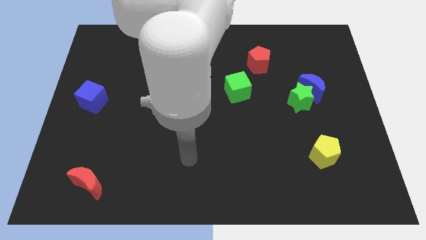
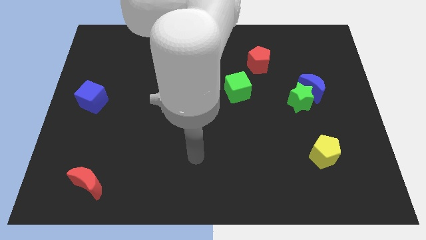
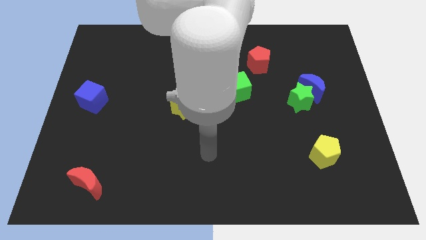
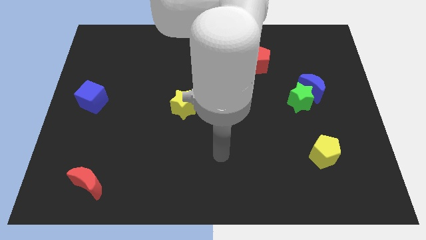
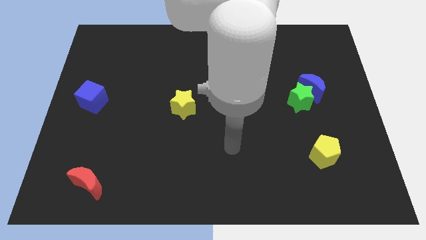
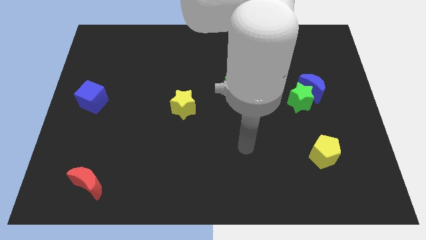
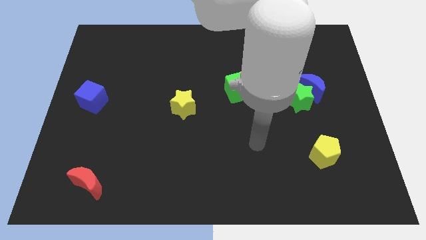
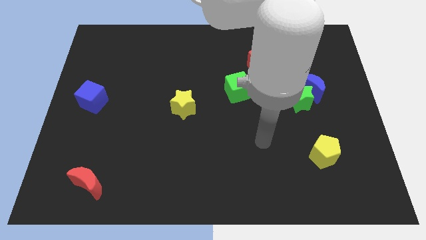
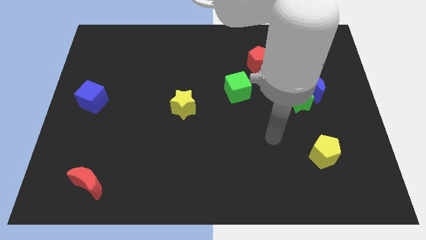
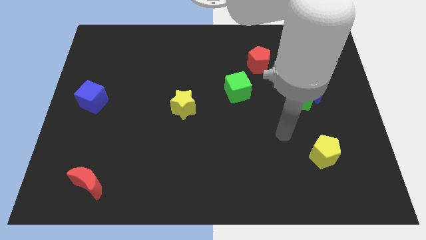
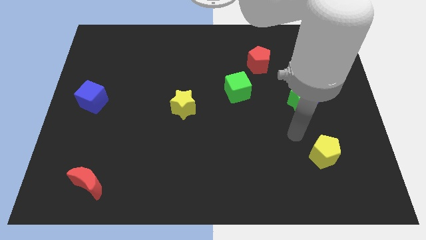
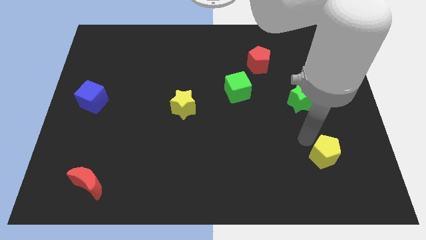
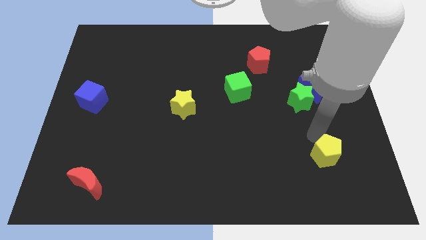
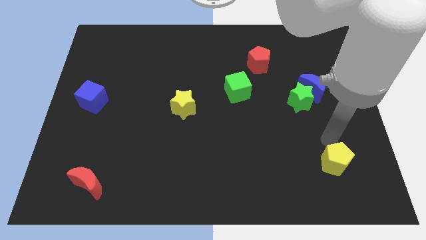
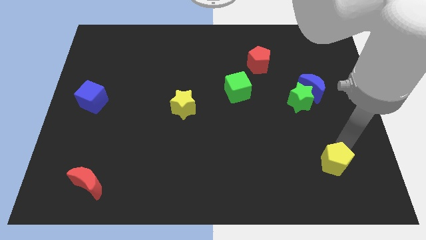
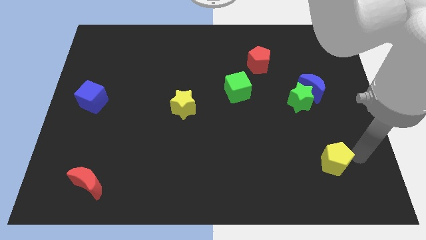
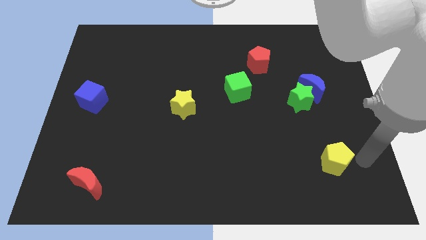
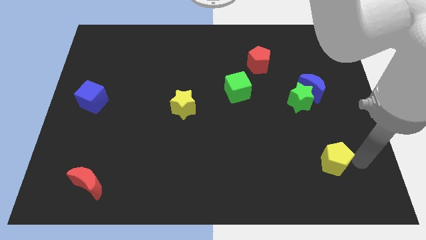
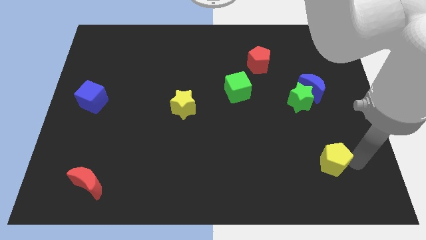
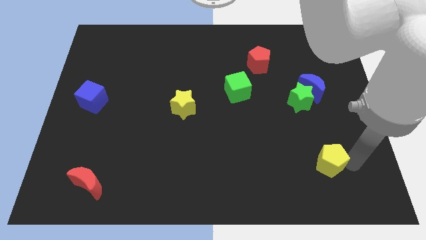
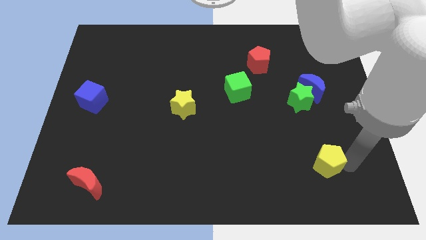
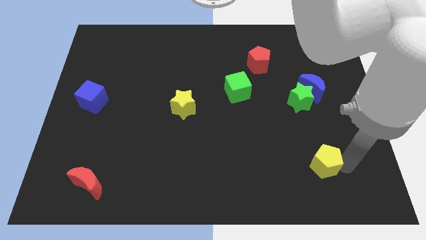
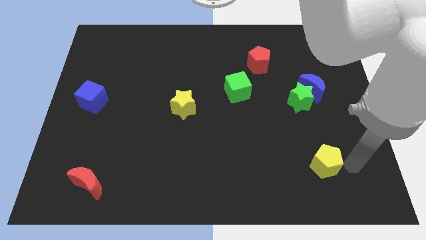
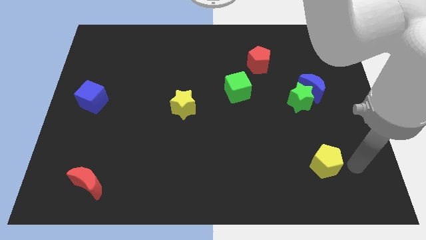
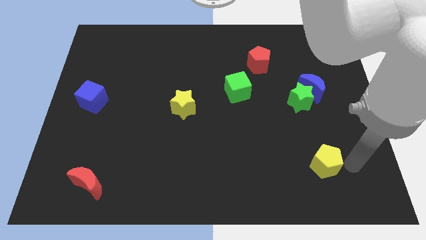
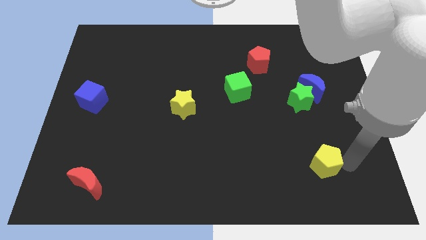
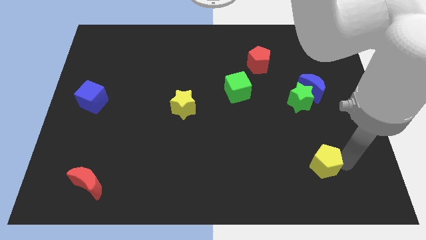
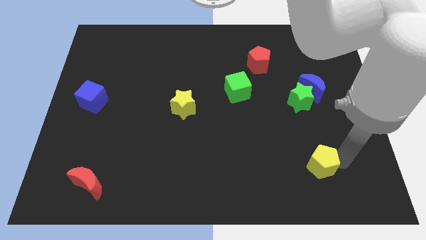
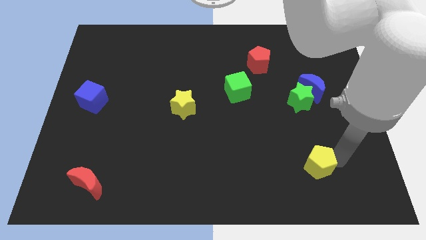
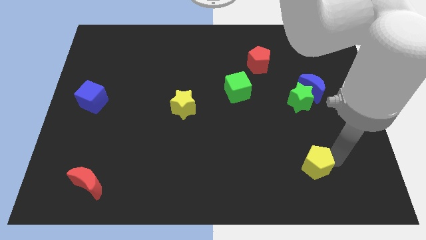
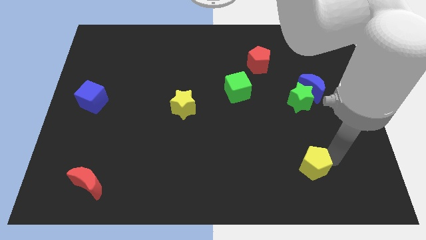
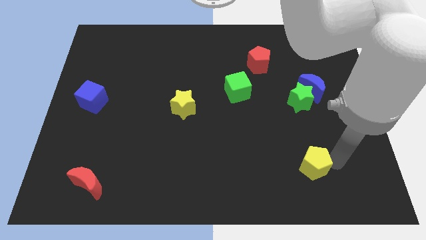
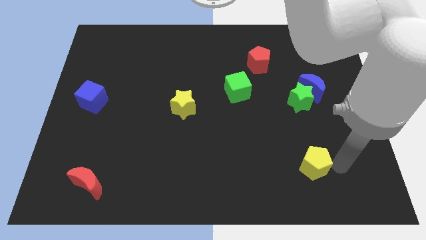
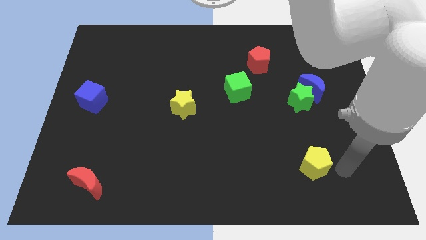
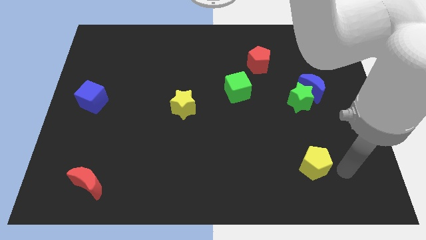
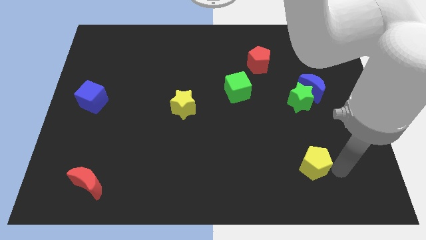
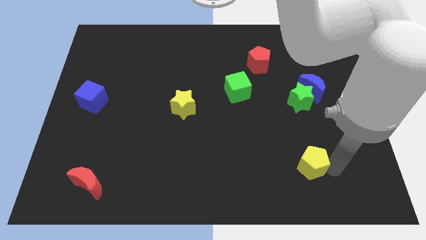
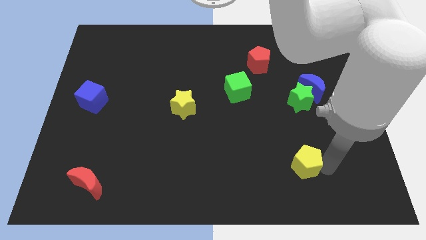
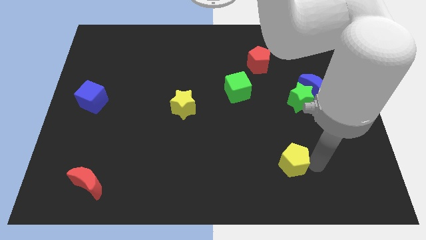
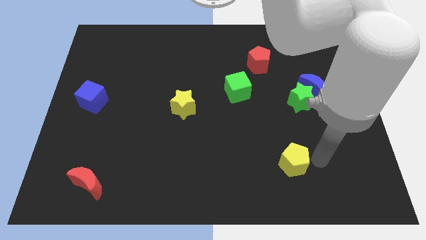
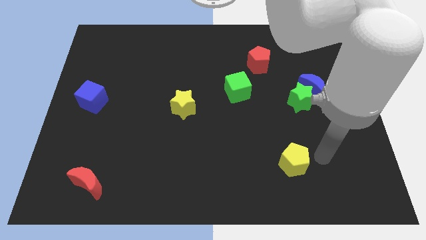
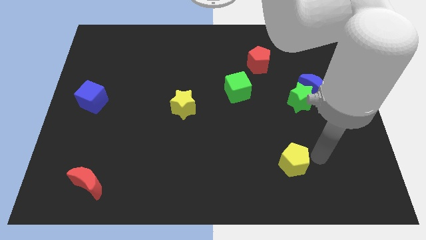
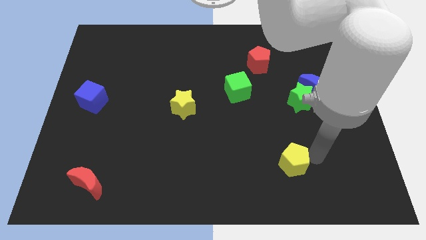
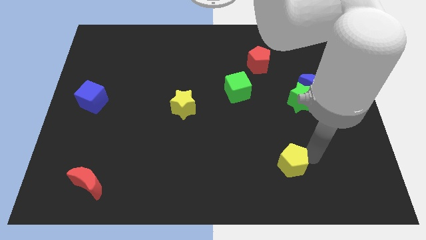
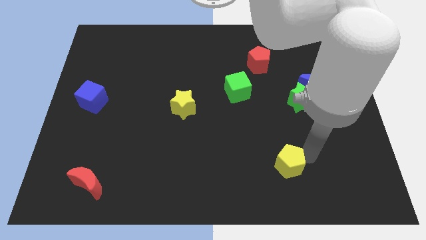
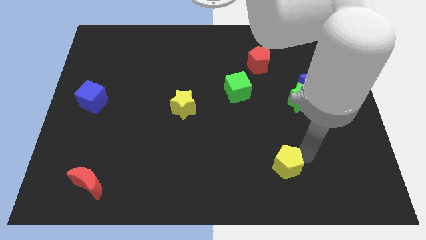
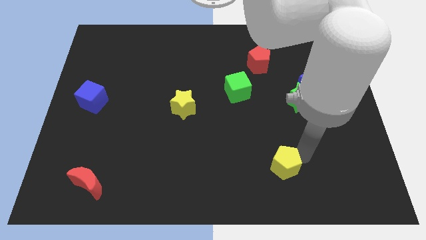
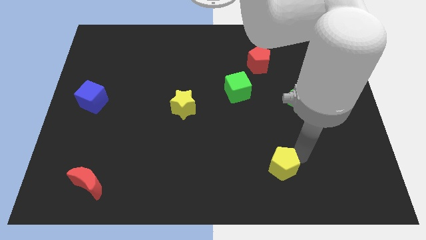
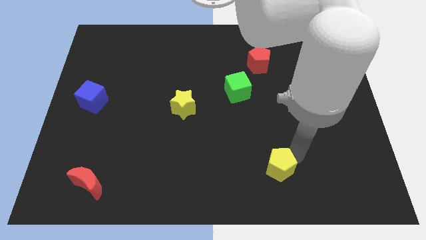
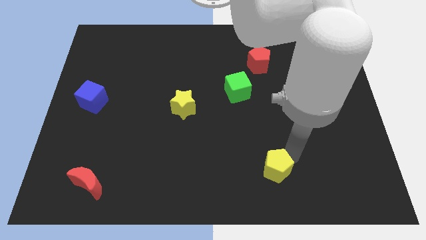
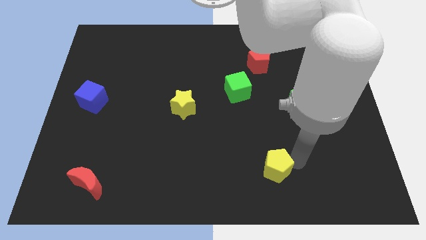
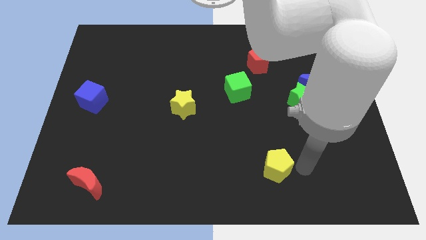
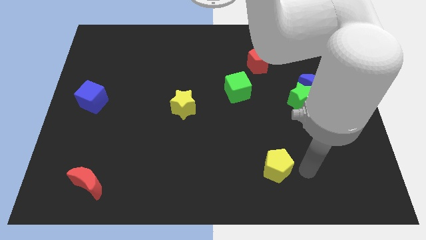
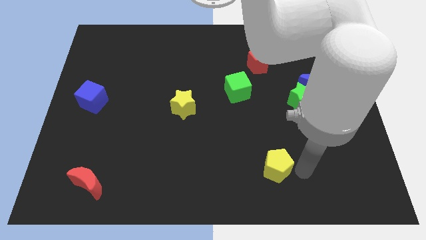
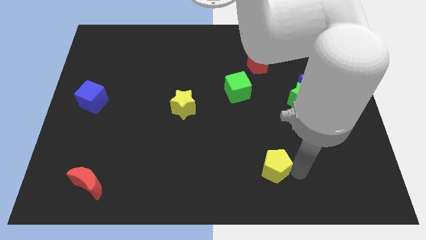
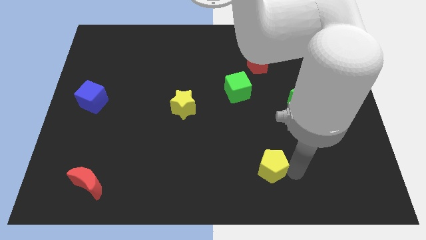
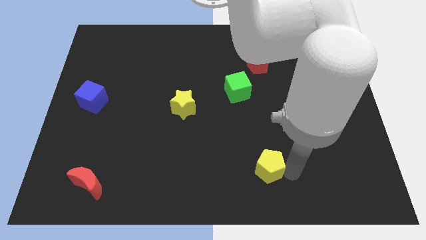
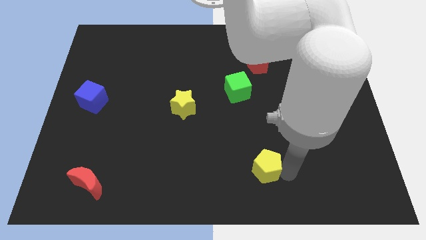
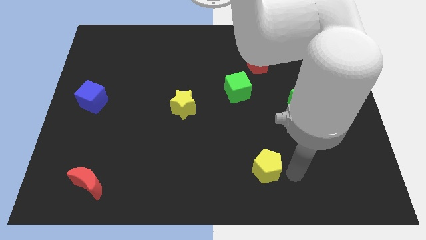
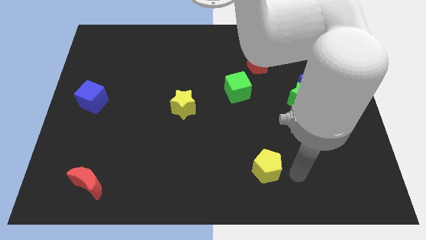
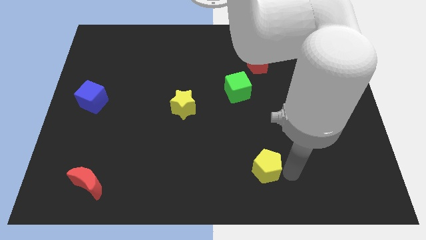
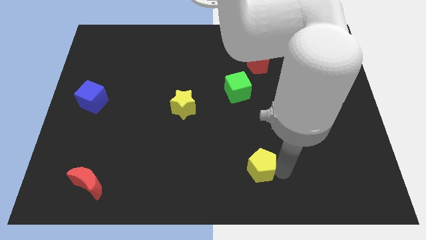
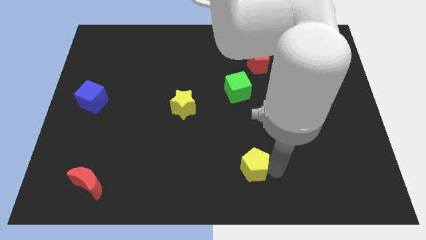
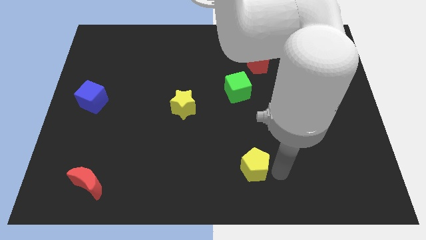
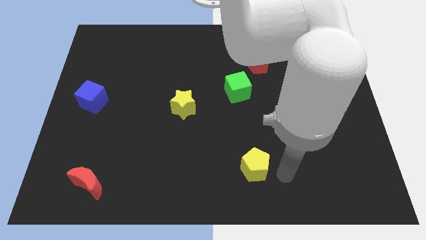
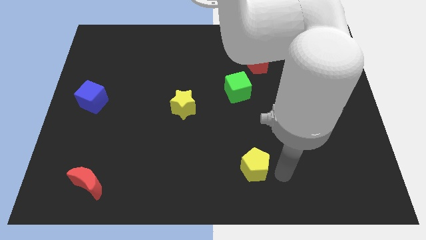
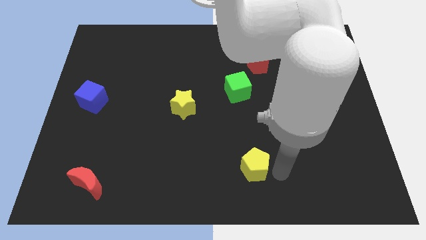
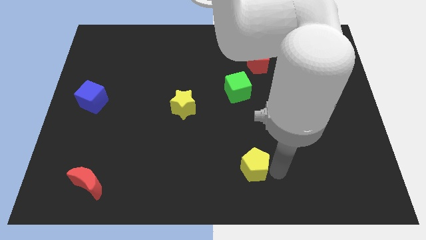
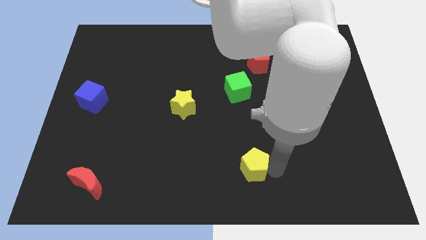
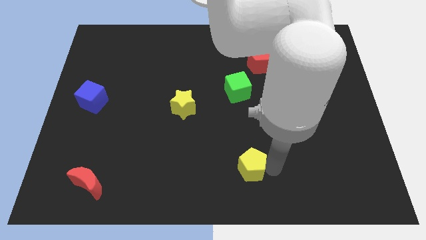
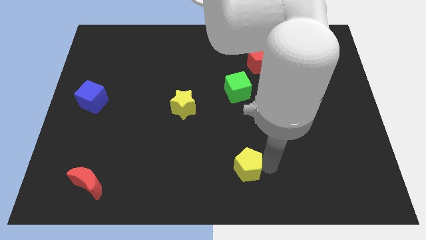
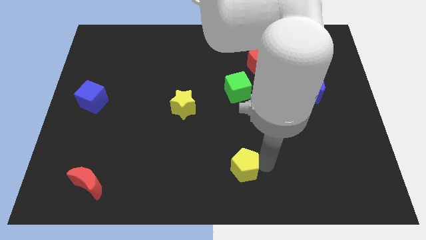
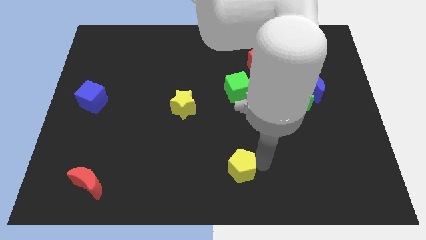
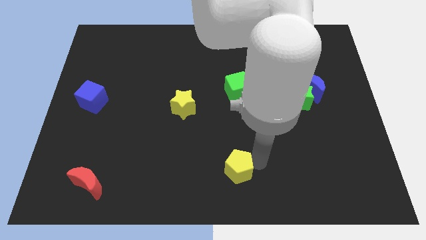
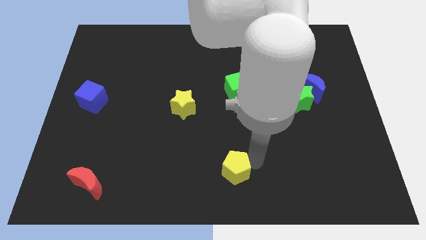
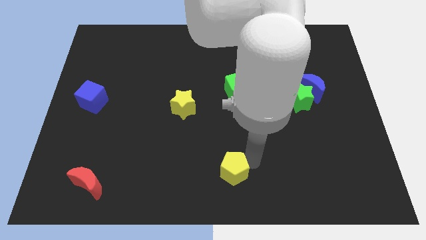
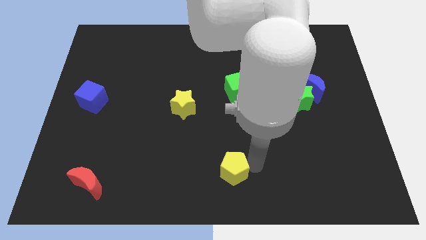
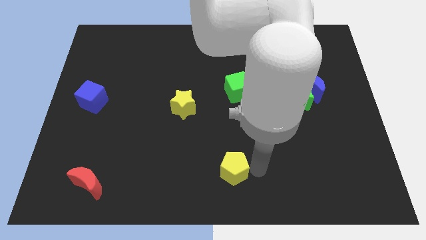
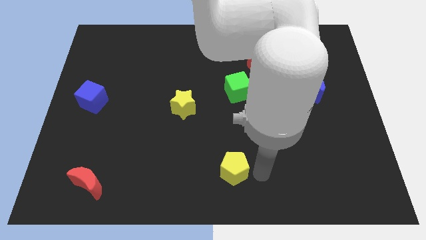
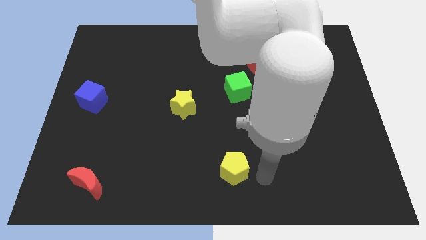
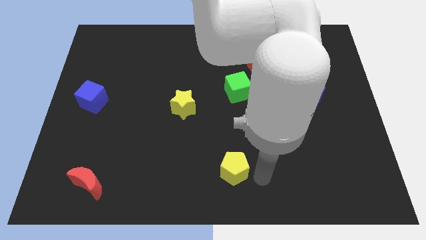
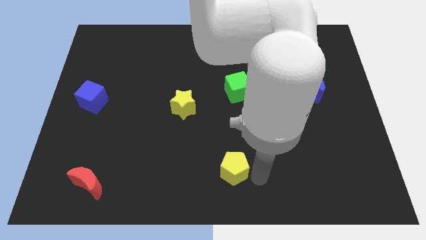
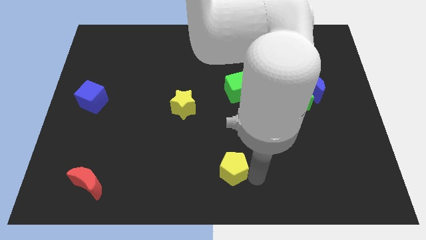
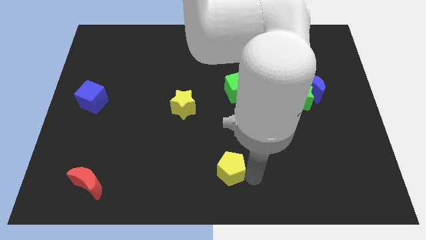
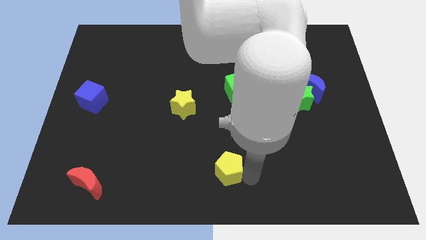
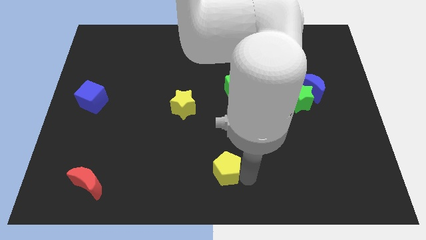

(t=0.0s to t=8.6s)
push the yellow pentagon to the left
